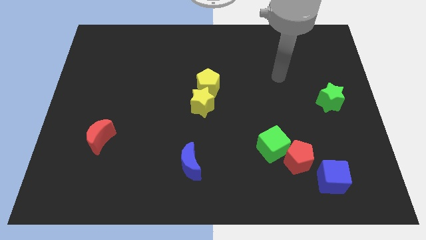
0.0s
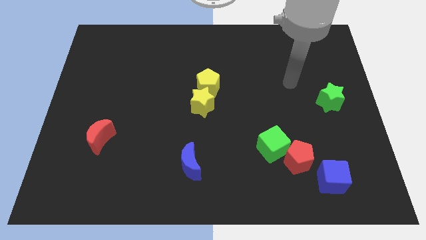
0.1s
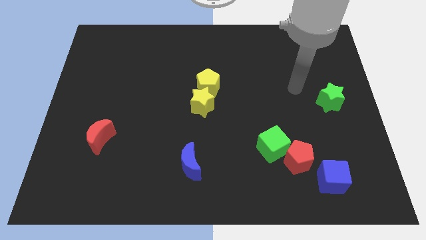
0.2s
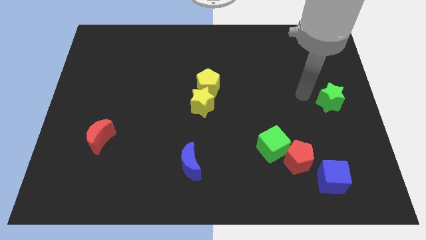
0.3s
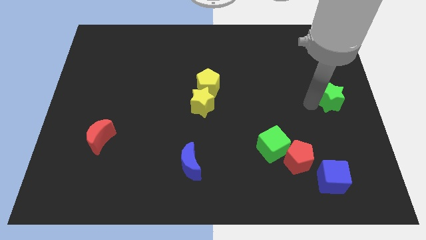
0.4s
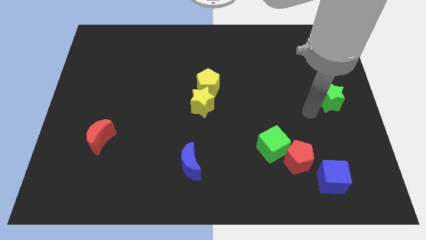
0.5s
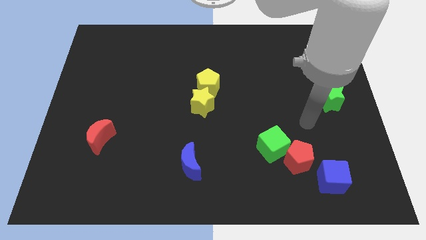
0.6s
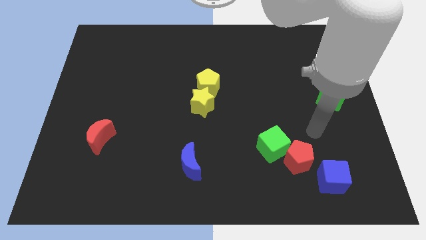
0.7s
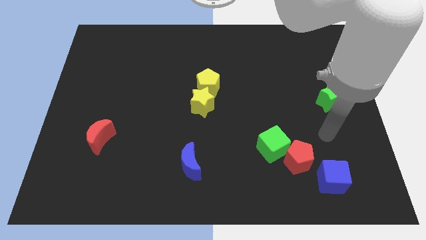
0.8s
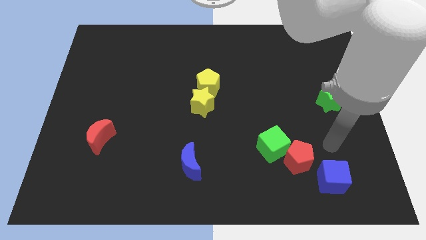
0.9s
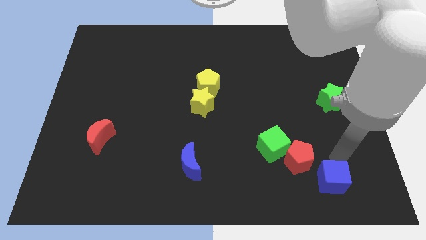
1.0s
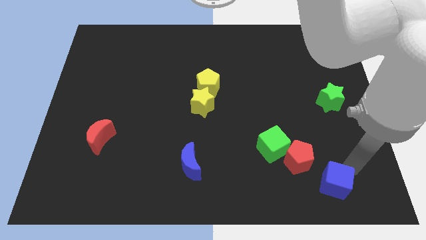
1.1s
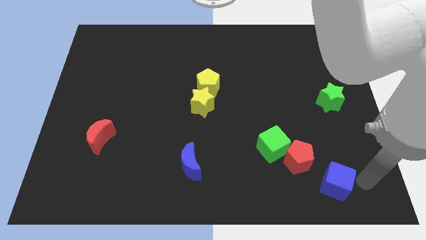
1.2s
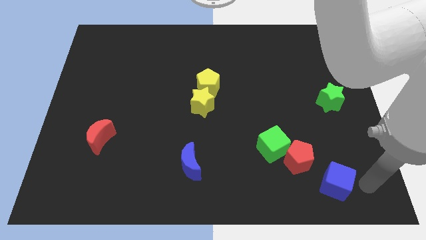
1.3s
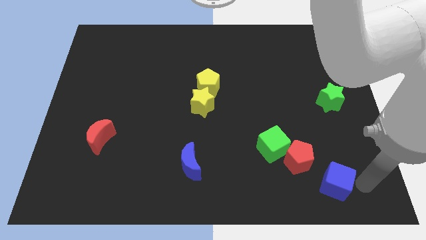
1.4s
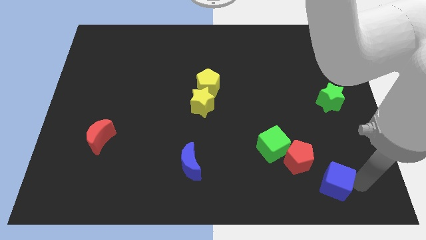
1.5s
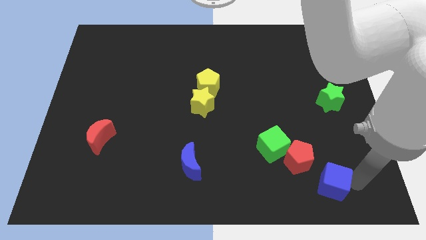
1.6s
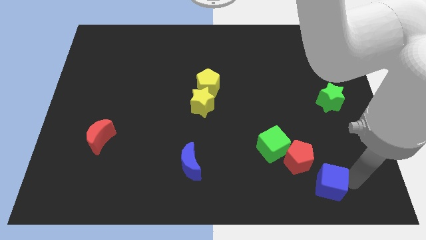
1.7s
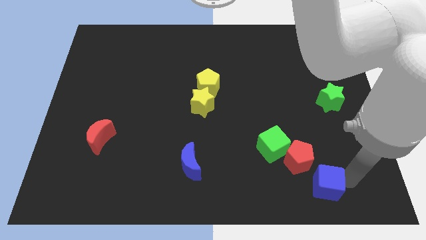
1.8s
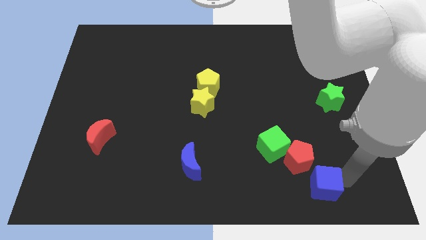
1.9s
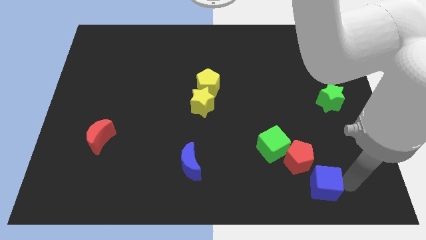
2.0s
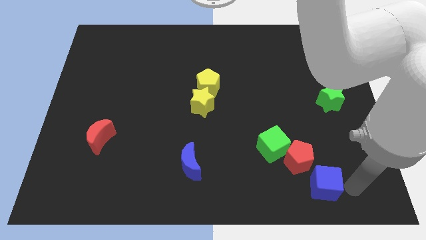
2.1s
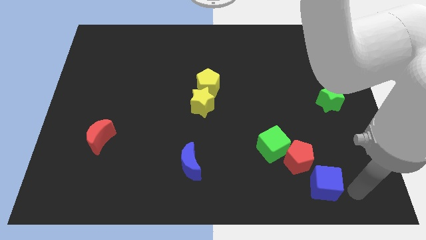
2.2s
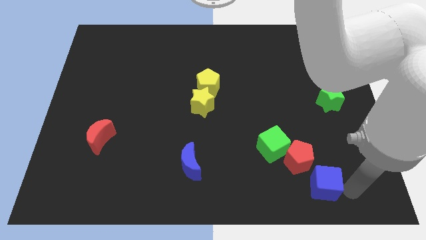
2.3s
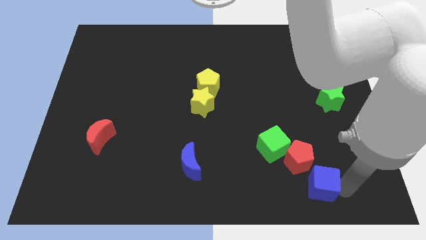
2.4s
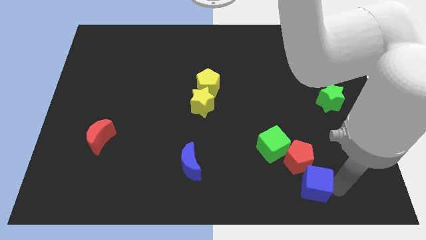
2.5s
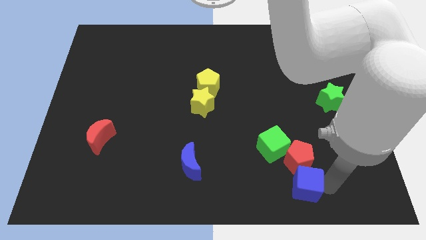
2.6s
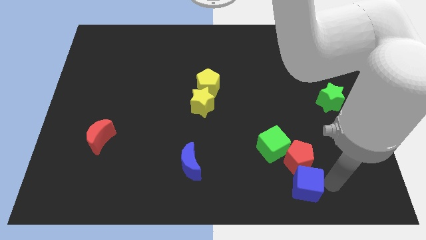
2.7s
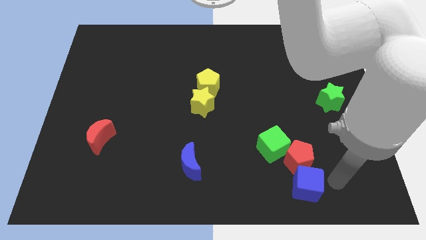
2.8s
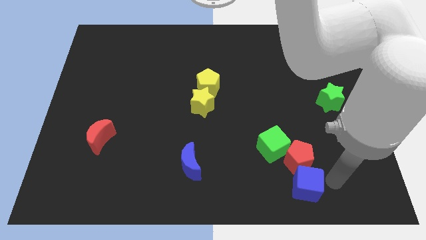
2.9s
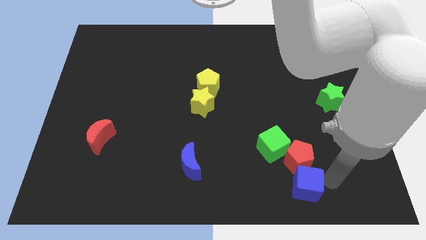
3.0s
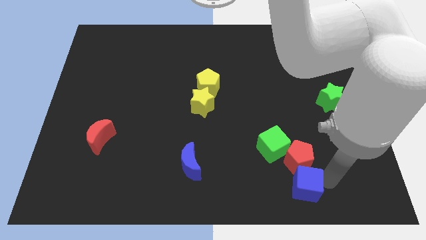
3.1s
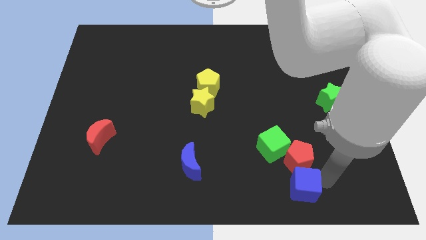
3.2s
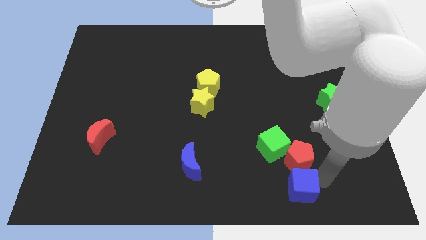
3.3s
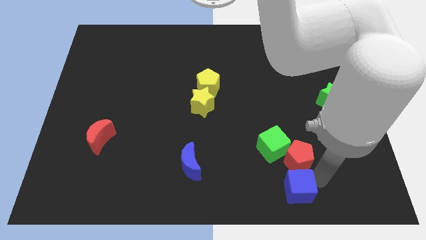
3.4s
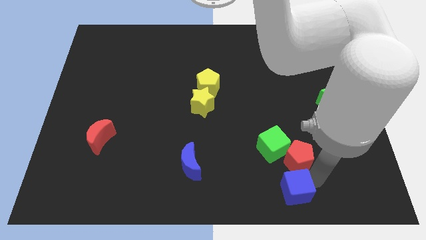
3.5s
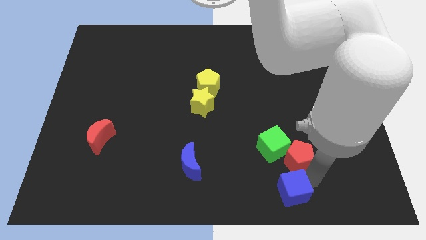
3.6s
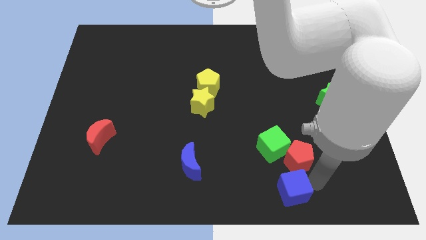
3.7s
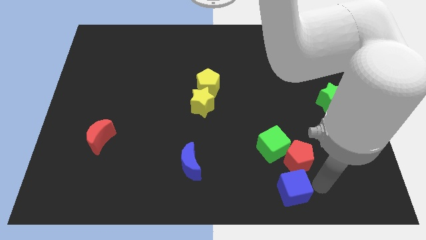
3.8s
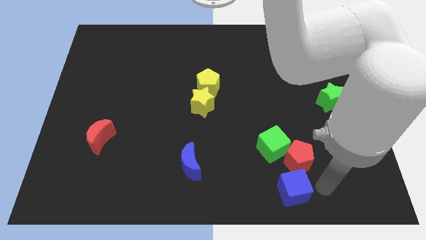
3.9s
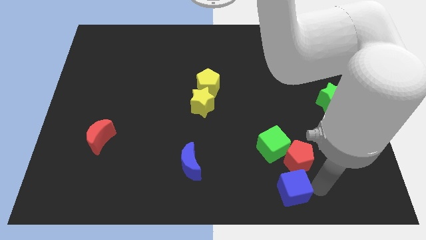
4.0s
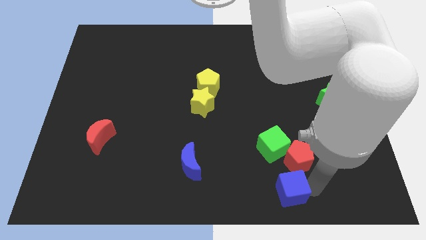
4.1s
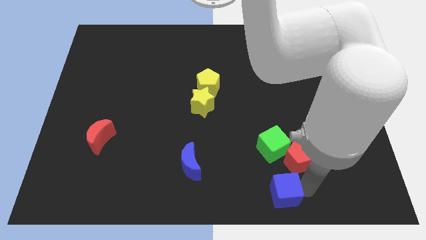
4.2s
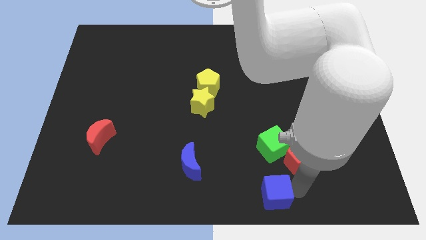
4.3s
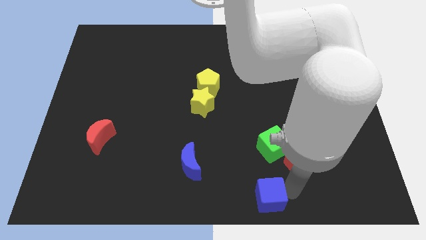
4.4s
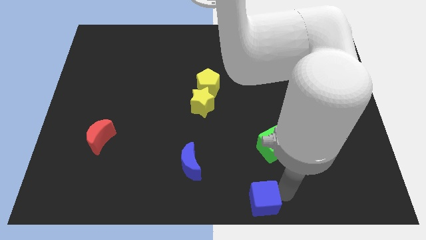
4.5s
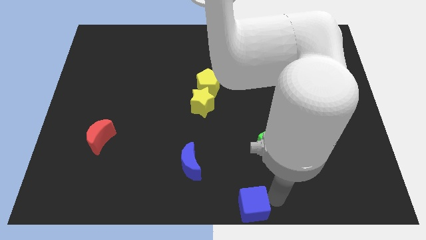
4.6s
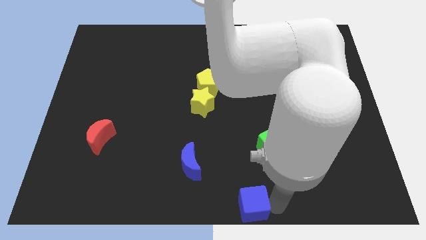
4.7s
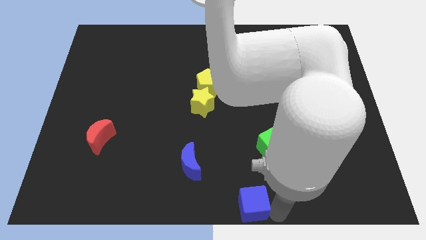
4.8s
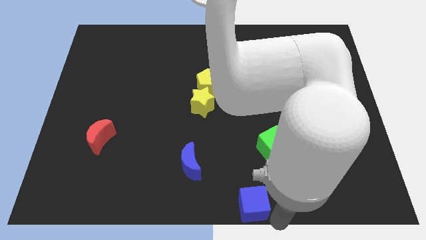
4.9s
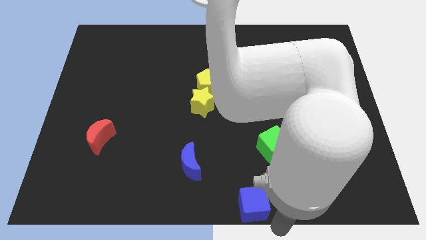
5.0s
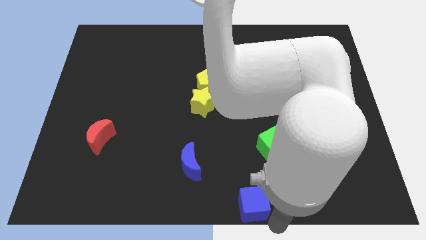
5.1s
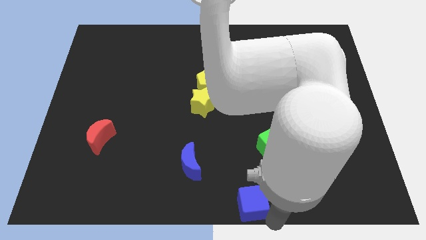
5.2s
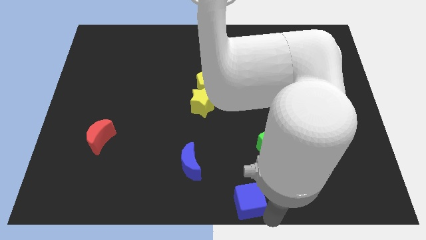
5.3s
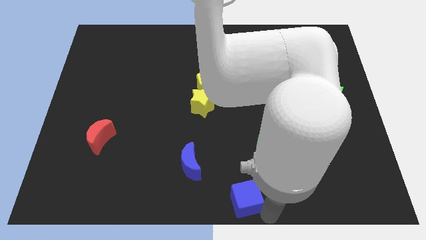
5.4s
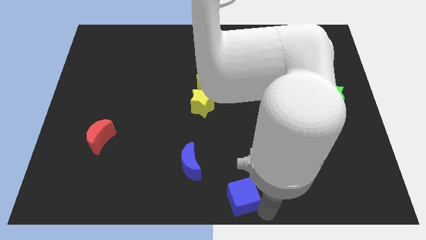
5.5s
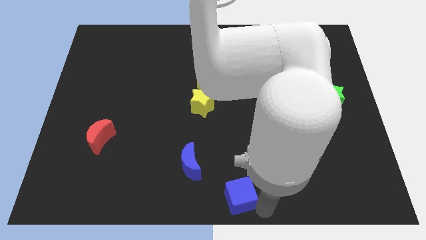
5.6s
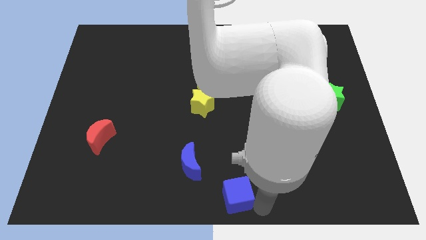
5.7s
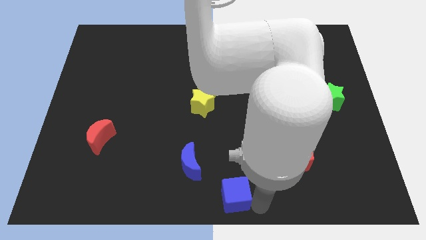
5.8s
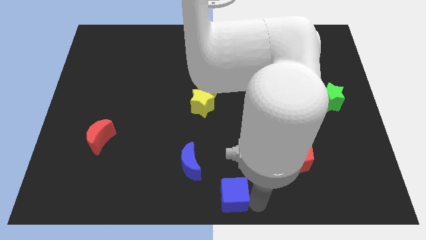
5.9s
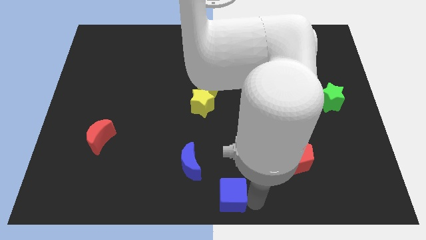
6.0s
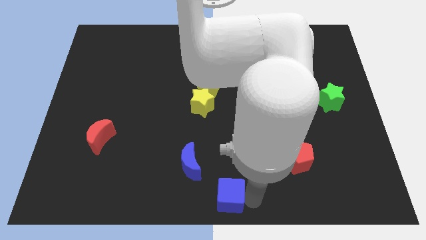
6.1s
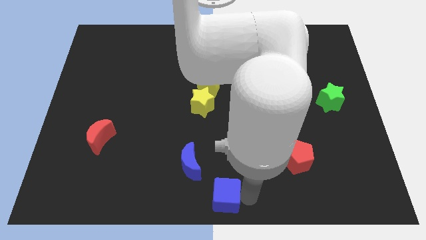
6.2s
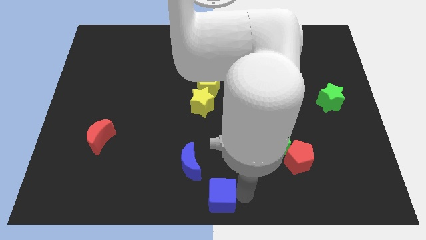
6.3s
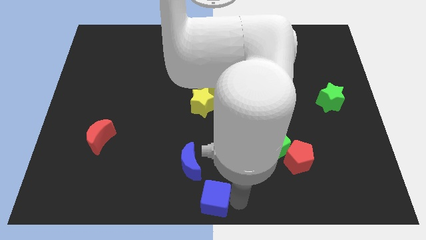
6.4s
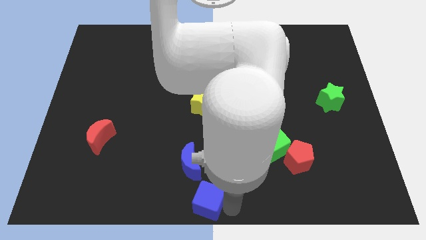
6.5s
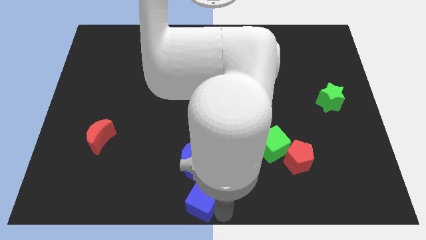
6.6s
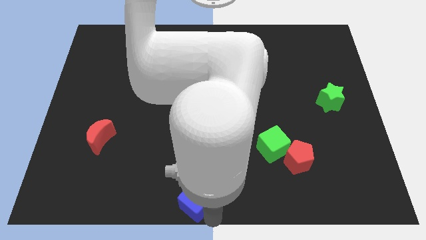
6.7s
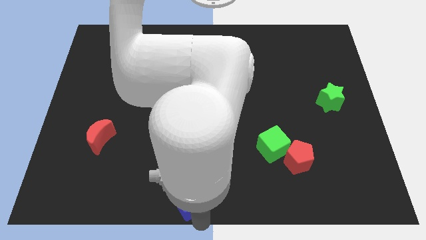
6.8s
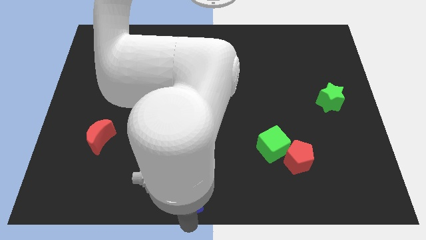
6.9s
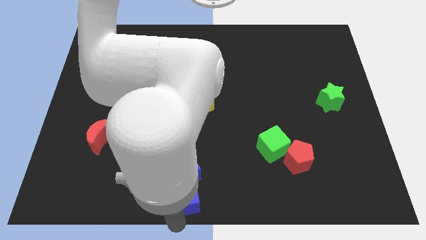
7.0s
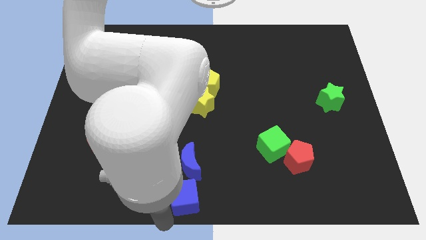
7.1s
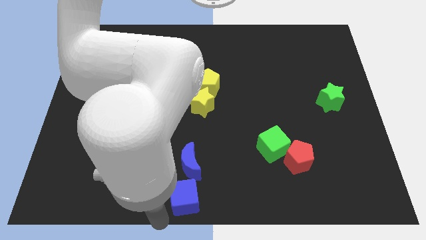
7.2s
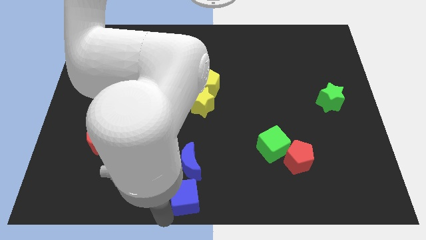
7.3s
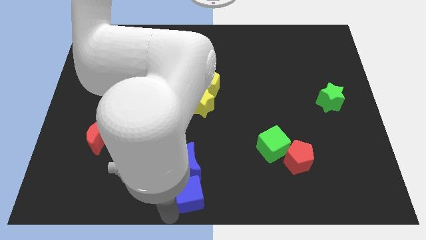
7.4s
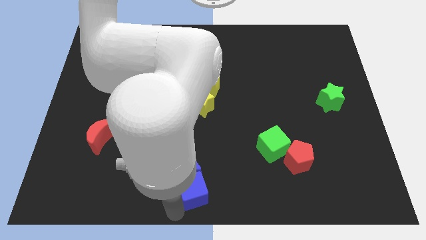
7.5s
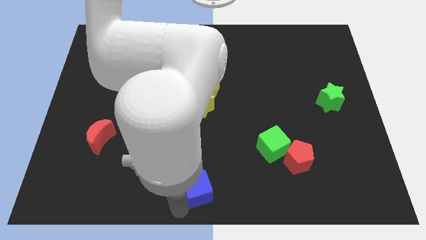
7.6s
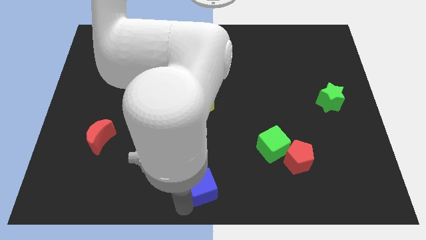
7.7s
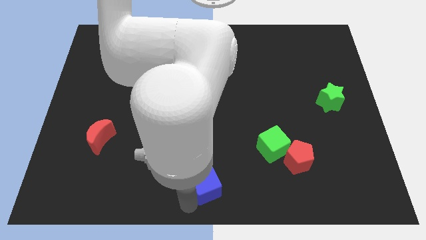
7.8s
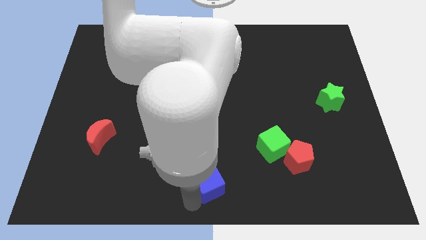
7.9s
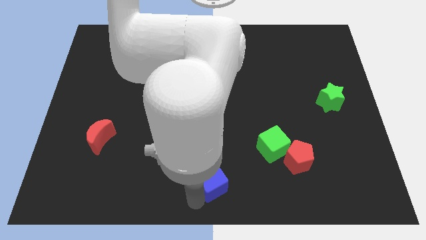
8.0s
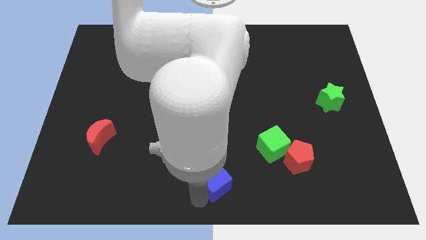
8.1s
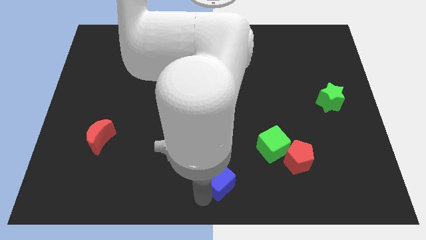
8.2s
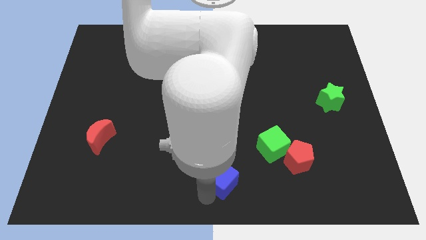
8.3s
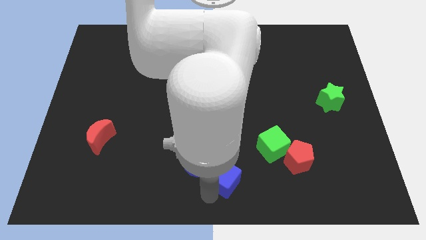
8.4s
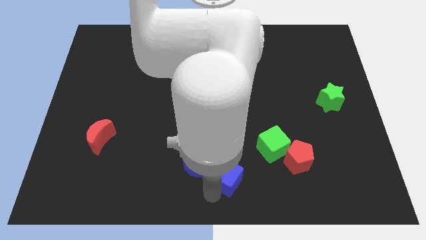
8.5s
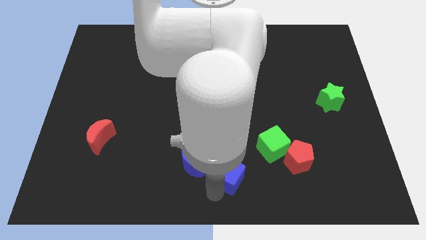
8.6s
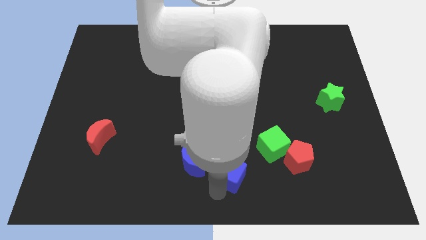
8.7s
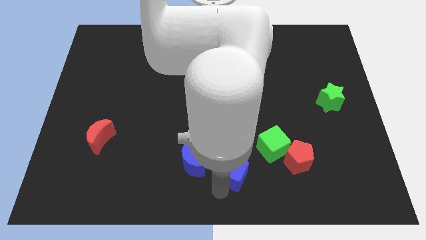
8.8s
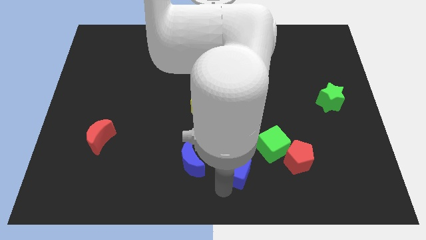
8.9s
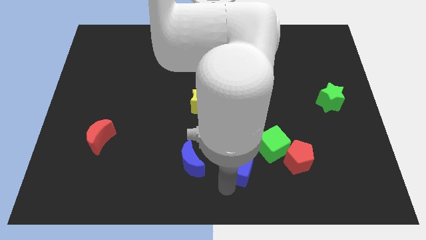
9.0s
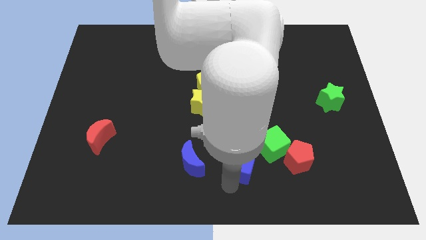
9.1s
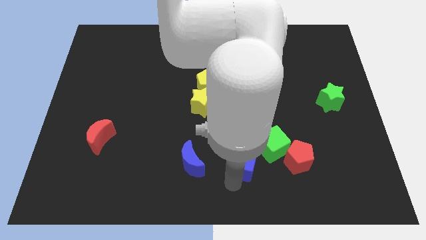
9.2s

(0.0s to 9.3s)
move the blue cube left of the green cube
